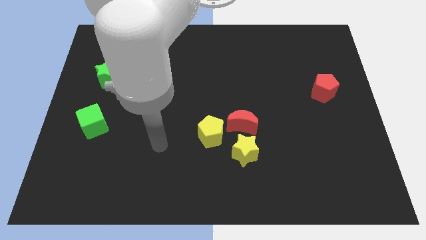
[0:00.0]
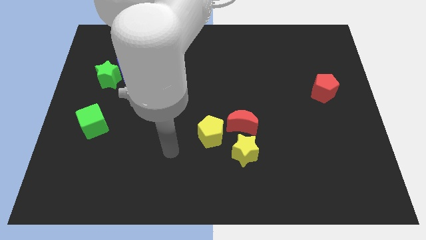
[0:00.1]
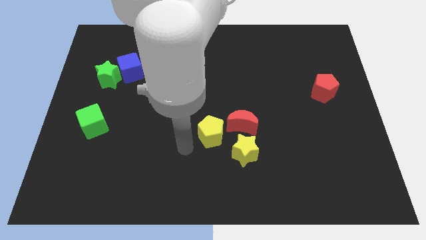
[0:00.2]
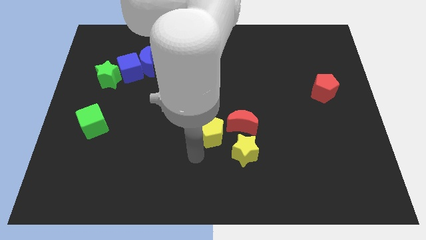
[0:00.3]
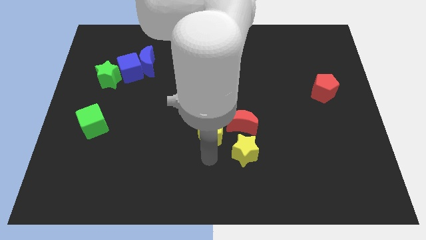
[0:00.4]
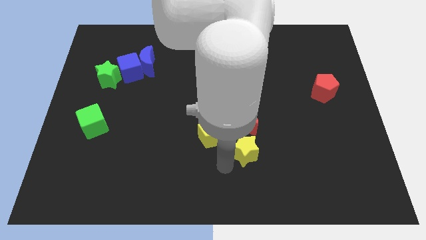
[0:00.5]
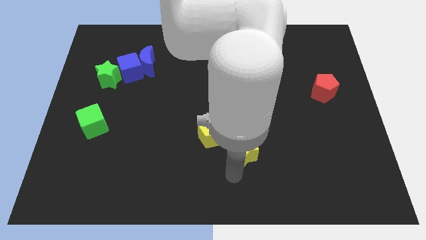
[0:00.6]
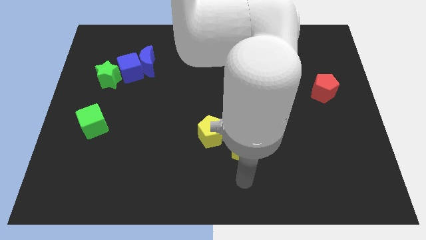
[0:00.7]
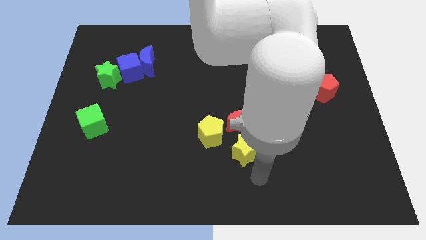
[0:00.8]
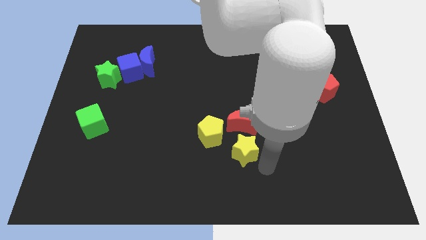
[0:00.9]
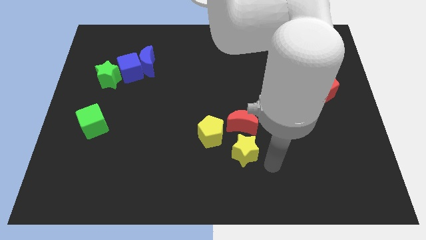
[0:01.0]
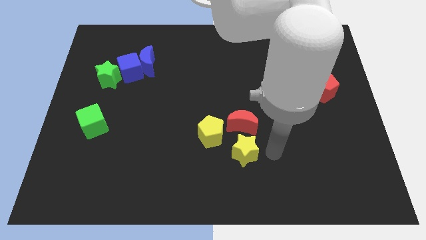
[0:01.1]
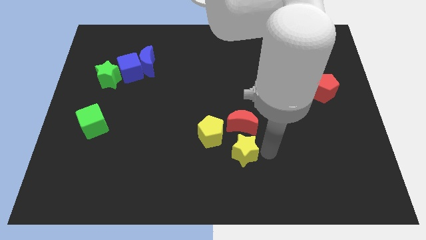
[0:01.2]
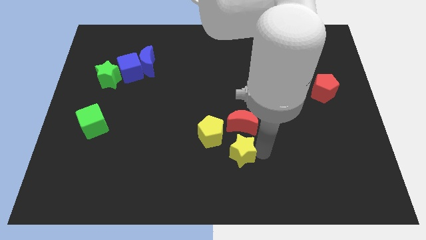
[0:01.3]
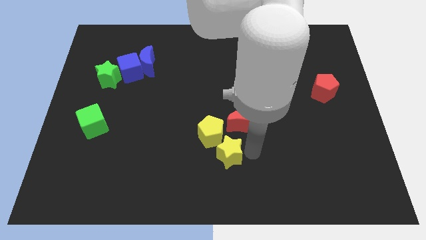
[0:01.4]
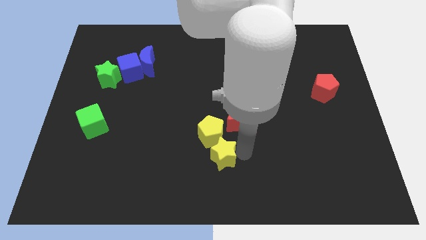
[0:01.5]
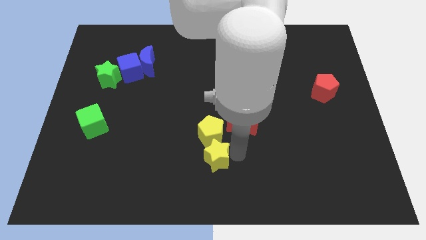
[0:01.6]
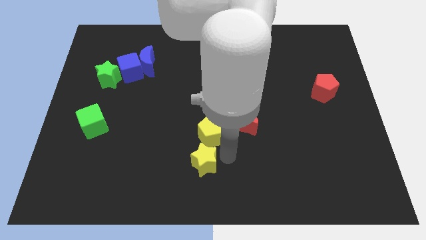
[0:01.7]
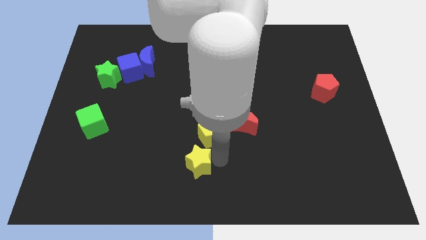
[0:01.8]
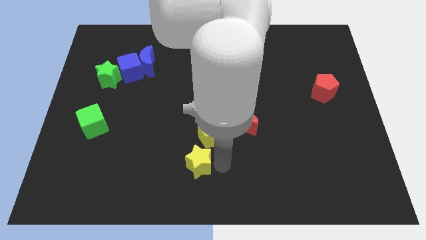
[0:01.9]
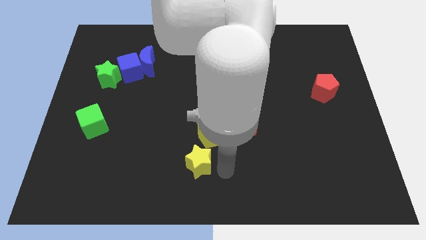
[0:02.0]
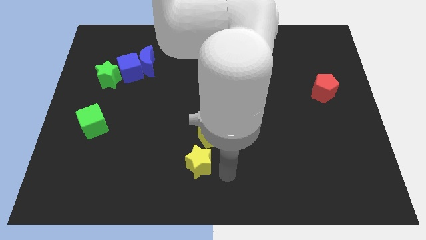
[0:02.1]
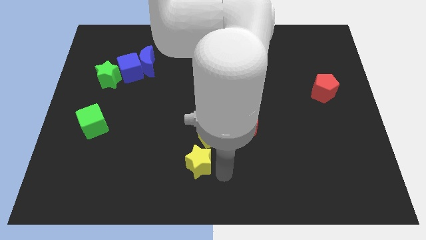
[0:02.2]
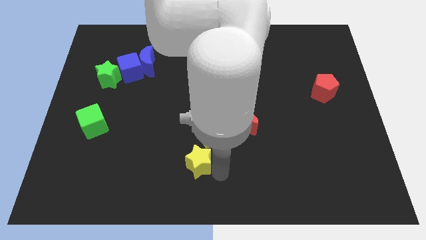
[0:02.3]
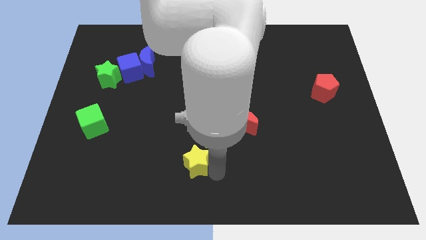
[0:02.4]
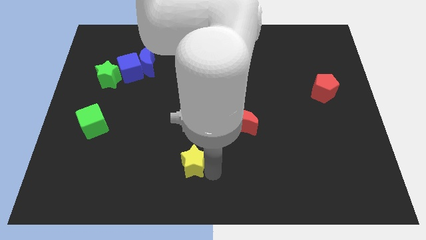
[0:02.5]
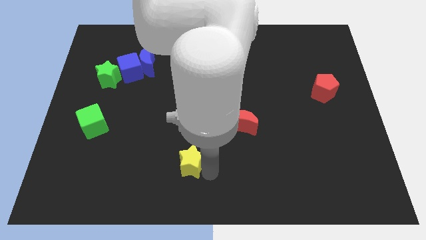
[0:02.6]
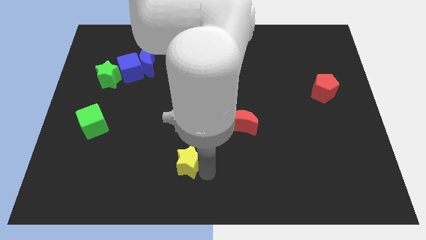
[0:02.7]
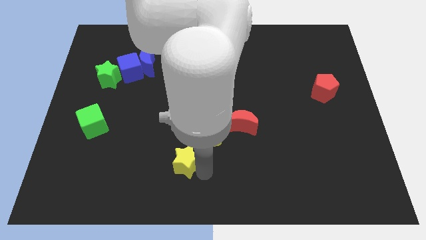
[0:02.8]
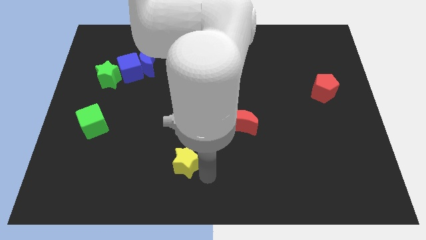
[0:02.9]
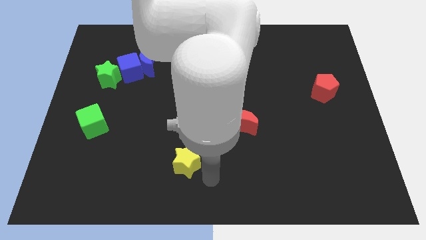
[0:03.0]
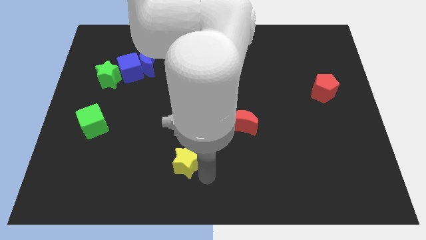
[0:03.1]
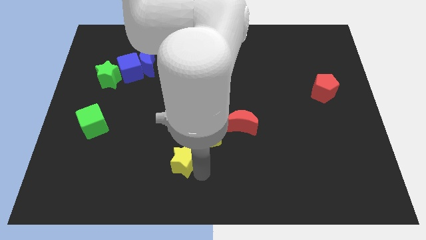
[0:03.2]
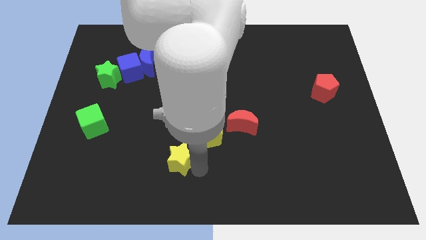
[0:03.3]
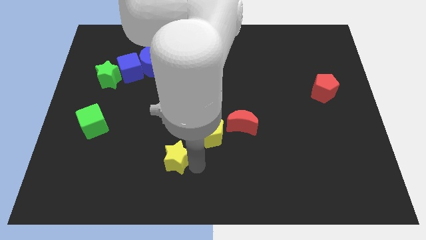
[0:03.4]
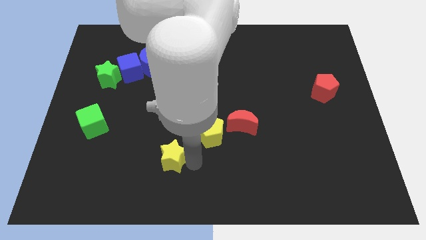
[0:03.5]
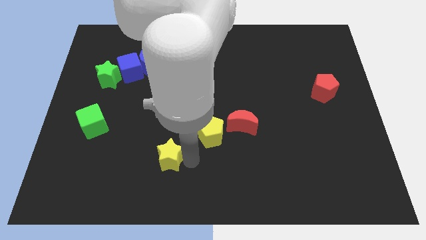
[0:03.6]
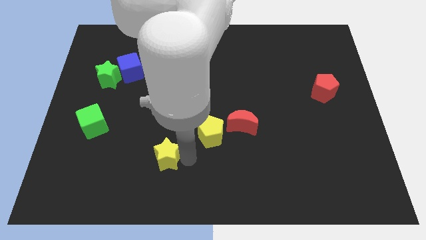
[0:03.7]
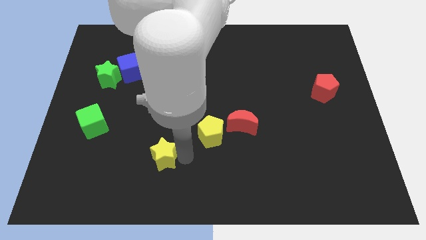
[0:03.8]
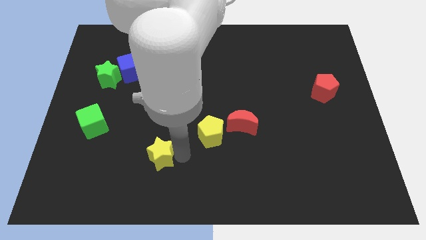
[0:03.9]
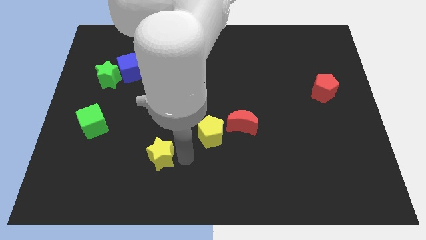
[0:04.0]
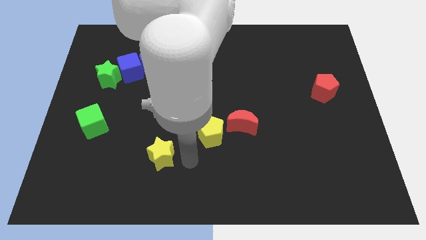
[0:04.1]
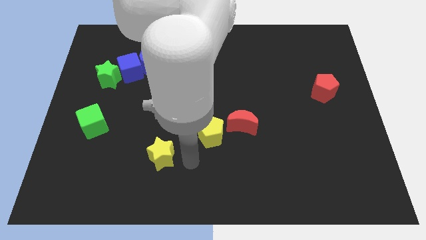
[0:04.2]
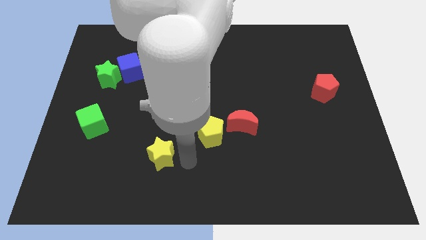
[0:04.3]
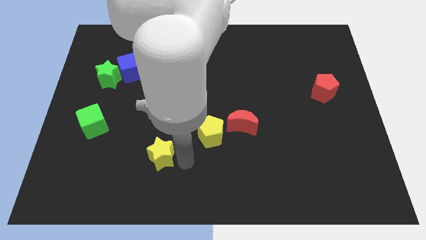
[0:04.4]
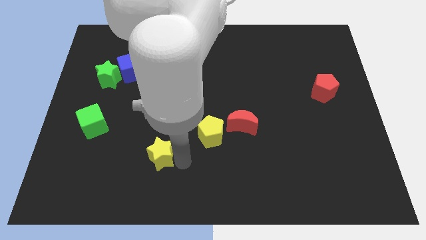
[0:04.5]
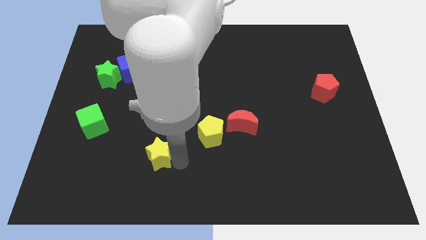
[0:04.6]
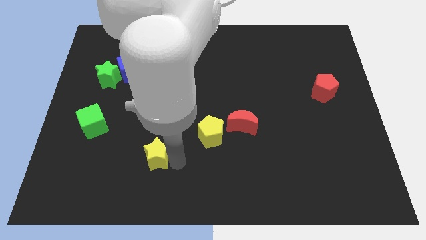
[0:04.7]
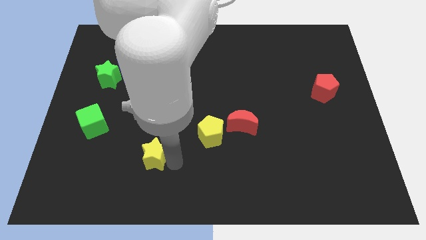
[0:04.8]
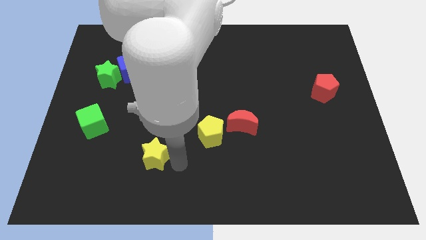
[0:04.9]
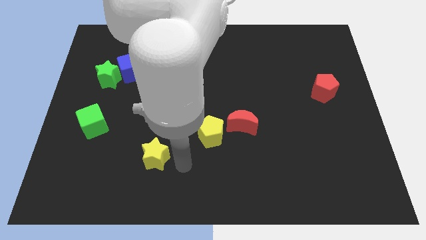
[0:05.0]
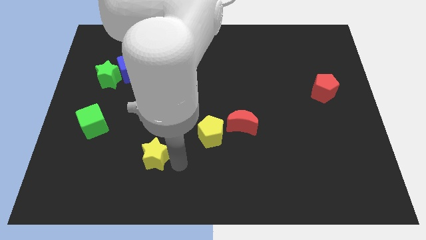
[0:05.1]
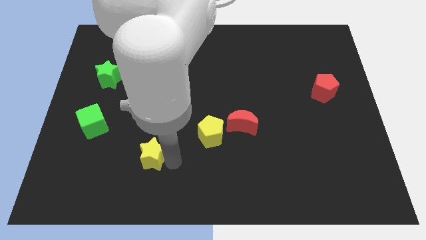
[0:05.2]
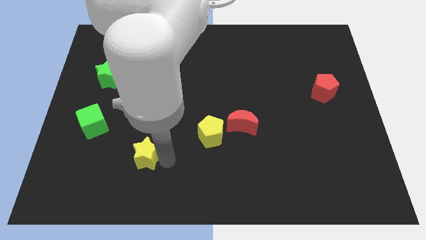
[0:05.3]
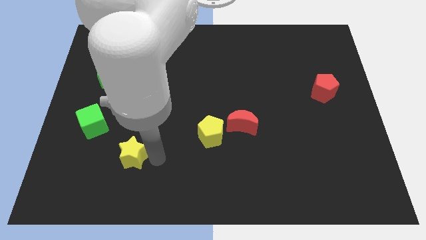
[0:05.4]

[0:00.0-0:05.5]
put the yellow star to the bottom right side of the green cube

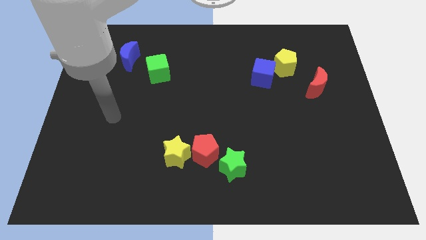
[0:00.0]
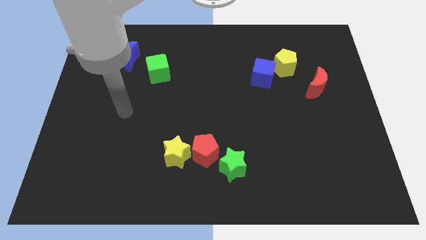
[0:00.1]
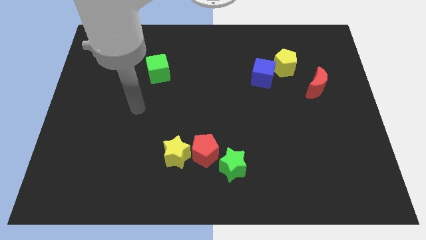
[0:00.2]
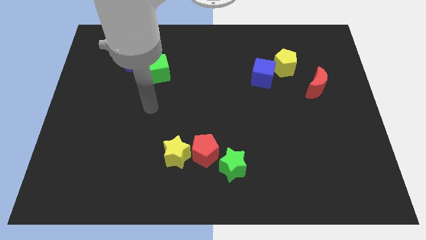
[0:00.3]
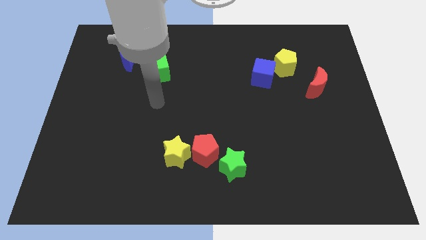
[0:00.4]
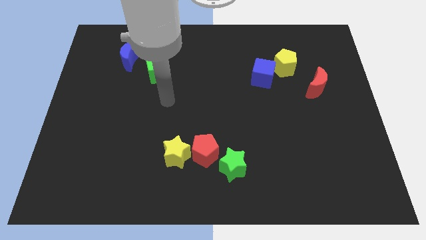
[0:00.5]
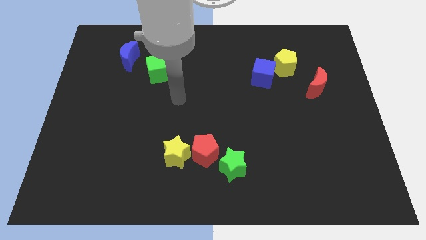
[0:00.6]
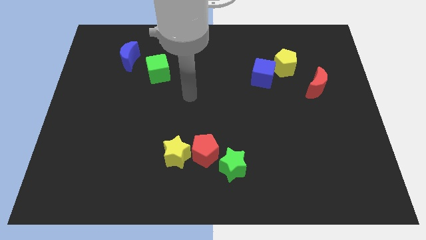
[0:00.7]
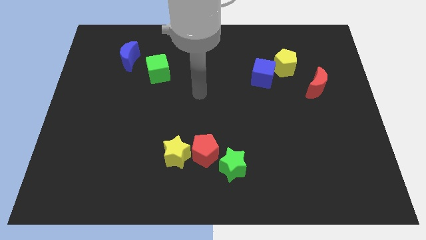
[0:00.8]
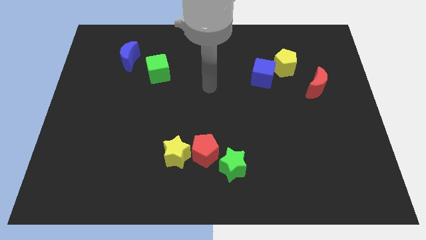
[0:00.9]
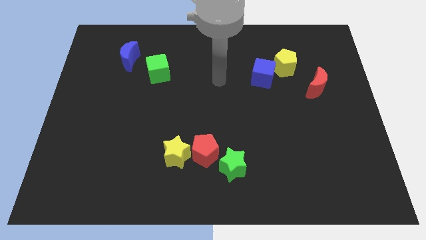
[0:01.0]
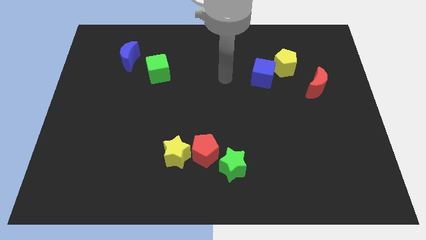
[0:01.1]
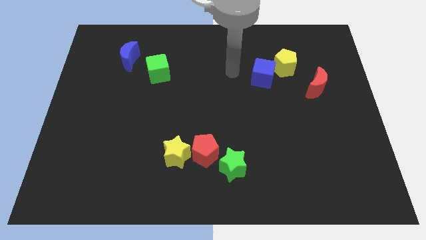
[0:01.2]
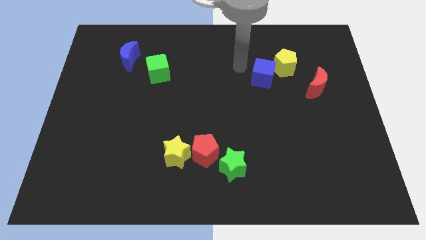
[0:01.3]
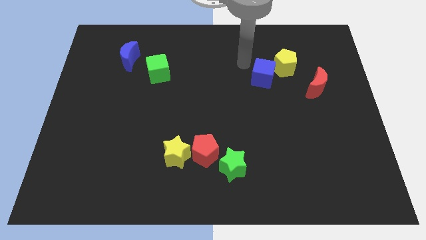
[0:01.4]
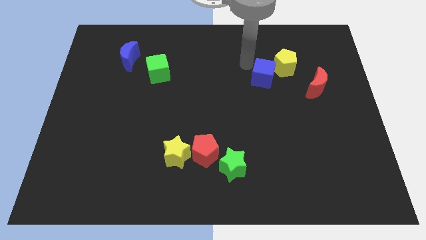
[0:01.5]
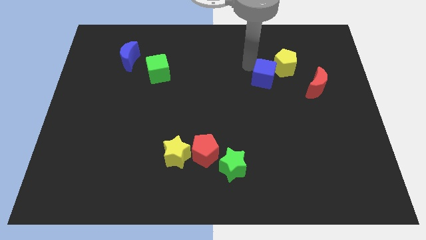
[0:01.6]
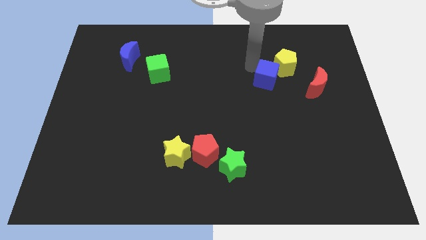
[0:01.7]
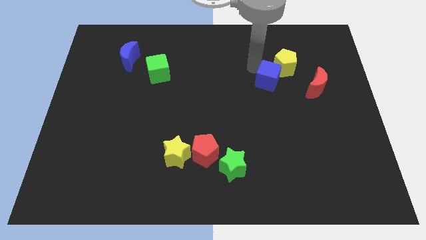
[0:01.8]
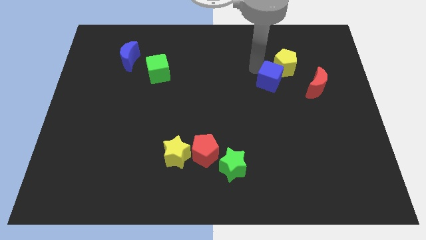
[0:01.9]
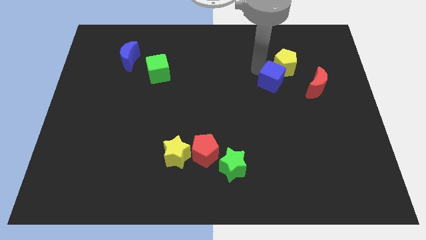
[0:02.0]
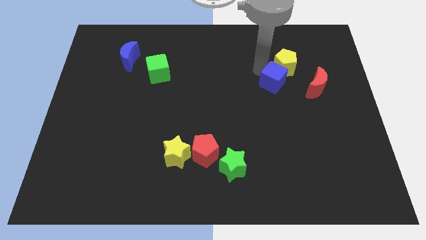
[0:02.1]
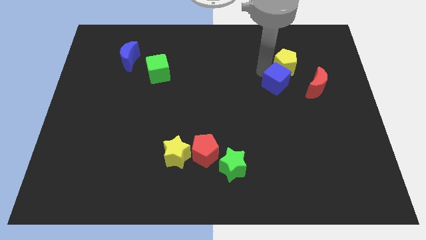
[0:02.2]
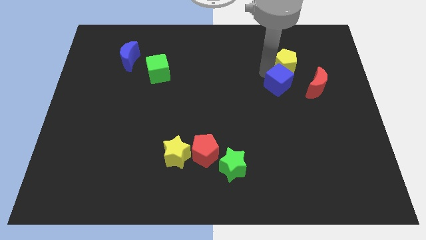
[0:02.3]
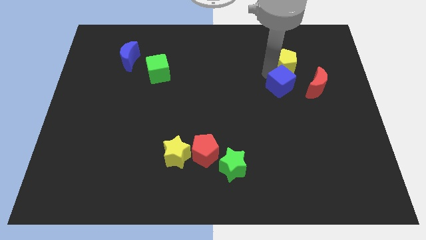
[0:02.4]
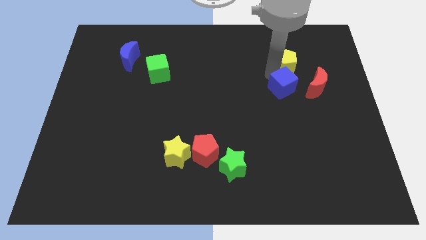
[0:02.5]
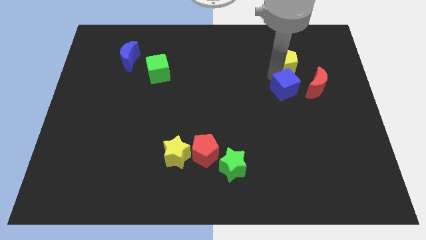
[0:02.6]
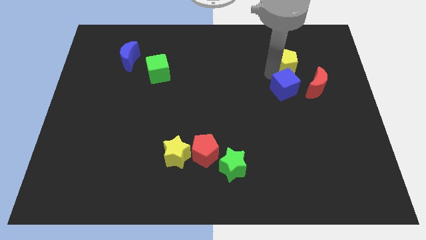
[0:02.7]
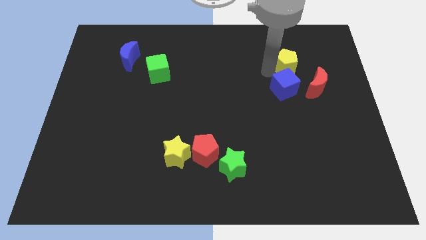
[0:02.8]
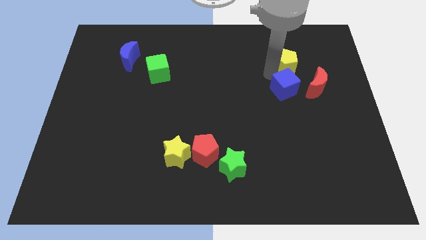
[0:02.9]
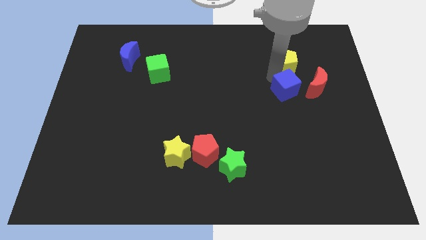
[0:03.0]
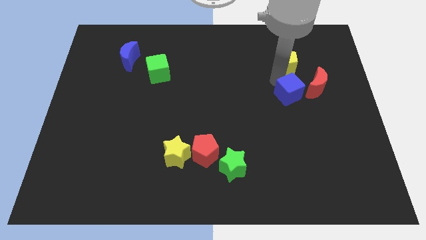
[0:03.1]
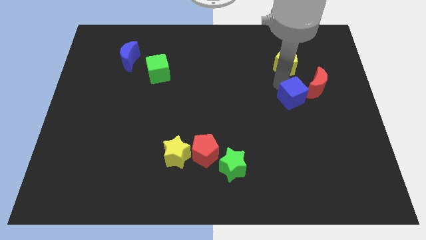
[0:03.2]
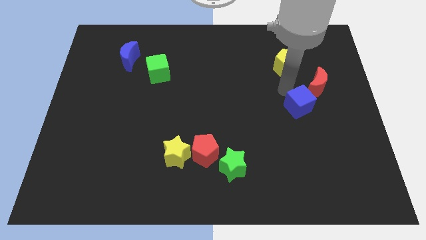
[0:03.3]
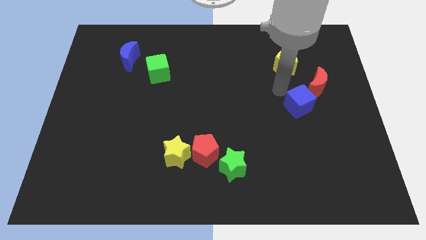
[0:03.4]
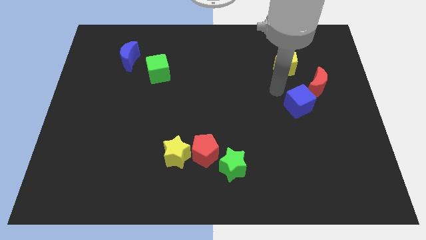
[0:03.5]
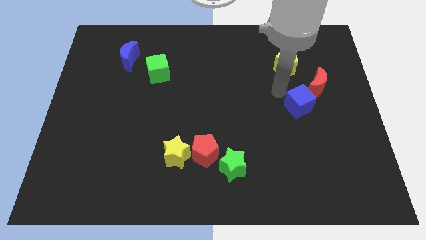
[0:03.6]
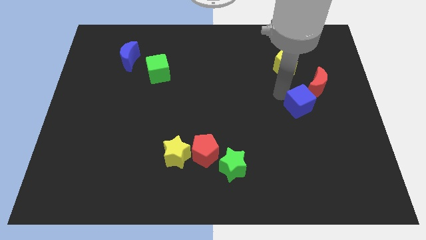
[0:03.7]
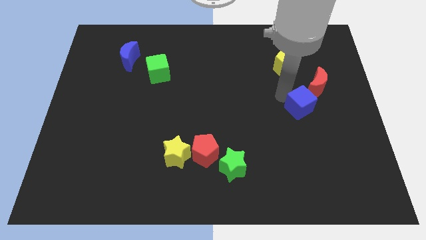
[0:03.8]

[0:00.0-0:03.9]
slide the blue cube to the bottom side of the red moon
